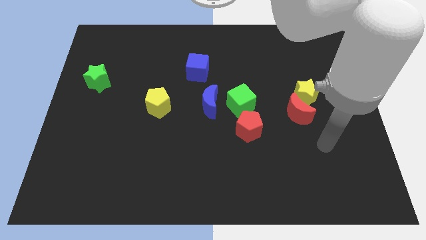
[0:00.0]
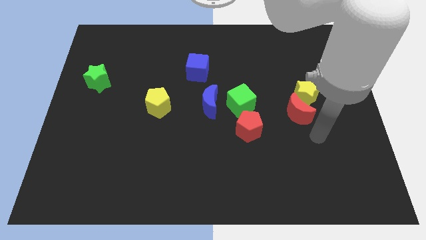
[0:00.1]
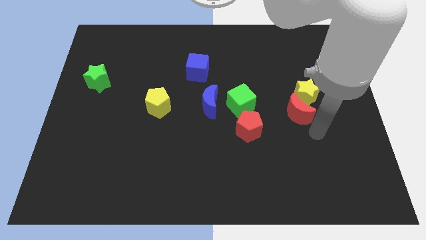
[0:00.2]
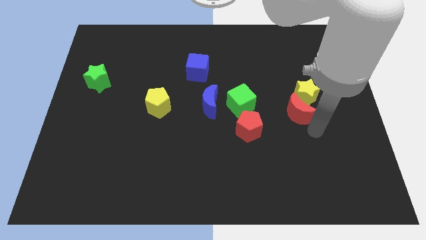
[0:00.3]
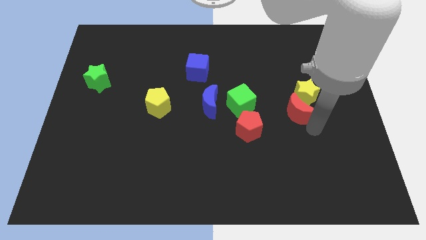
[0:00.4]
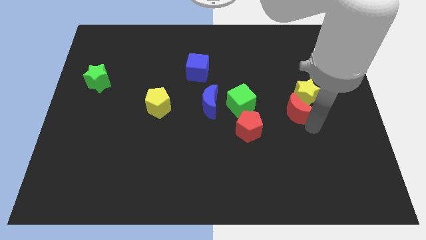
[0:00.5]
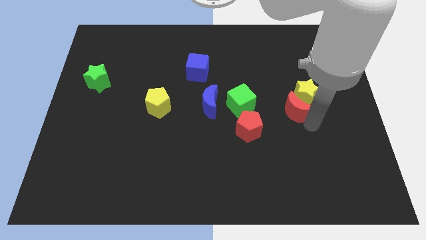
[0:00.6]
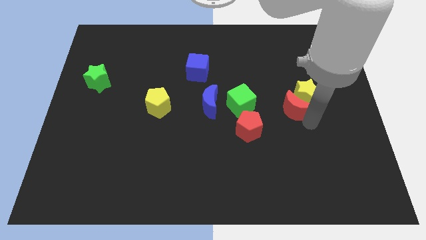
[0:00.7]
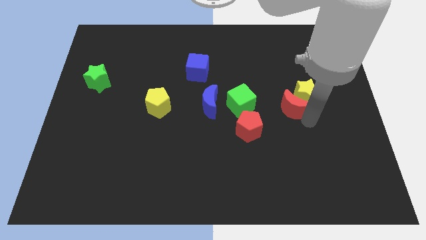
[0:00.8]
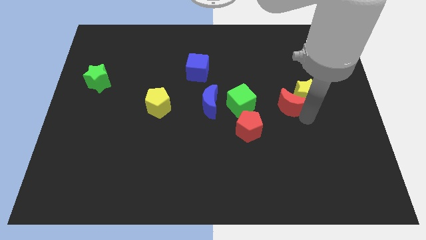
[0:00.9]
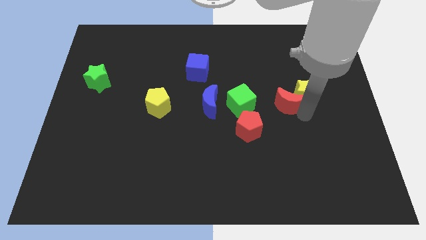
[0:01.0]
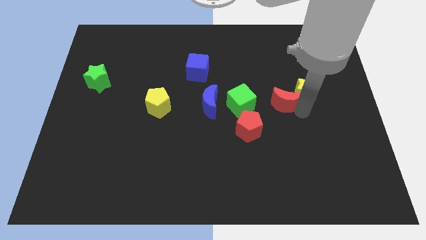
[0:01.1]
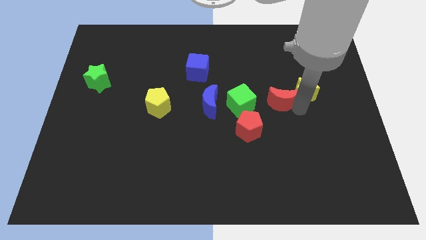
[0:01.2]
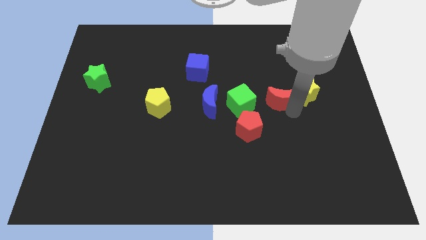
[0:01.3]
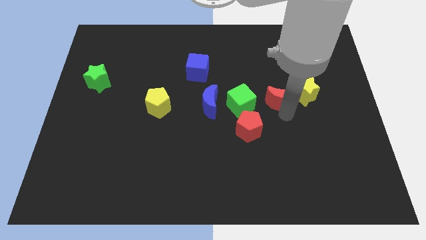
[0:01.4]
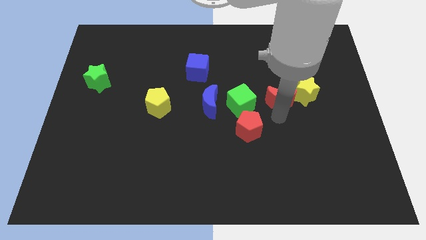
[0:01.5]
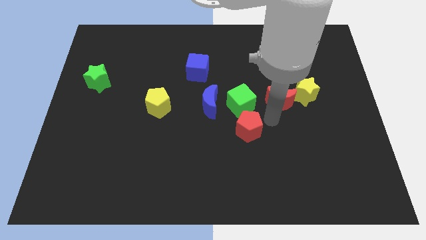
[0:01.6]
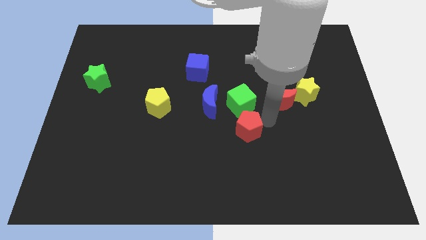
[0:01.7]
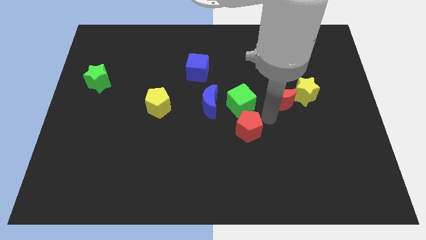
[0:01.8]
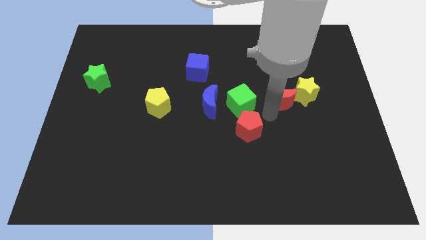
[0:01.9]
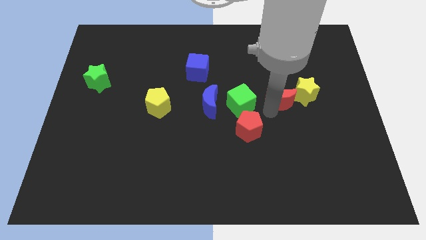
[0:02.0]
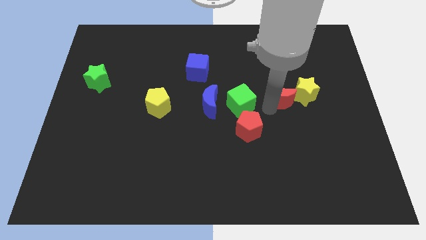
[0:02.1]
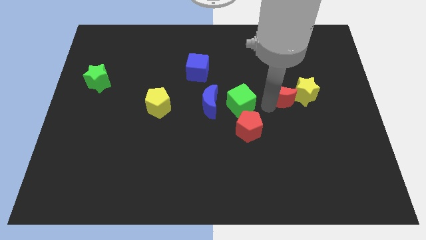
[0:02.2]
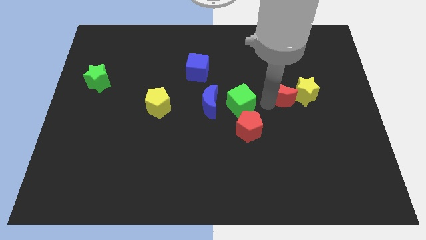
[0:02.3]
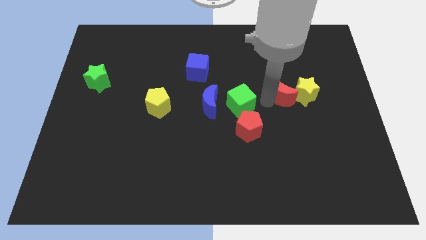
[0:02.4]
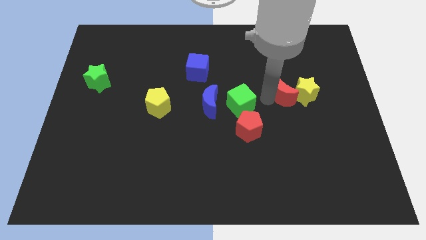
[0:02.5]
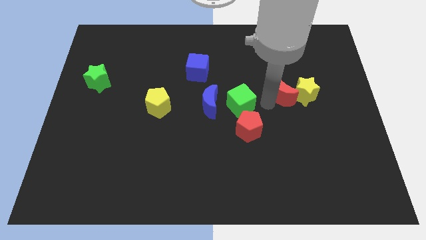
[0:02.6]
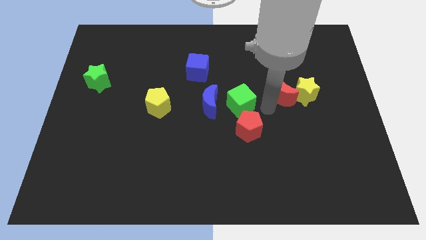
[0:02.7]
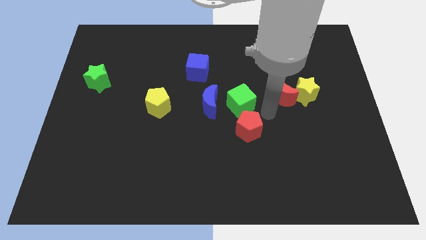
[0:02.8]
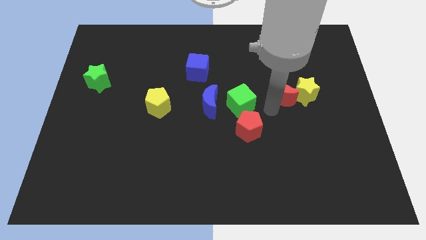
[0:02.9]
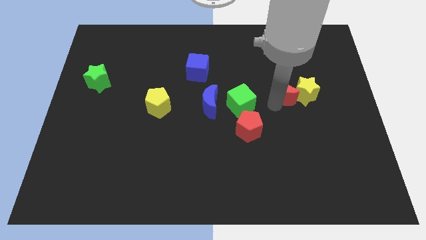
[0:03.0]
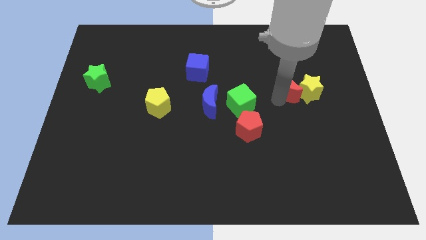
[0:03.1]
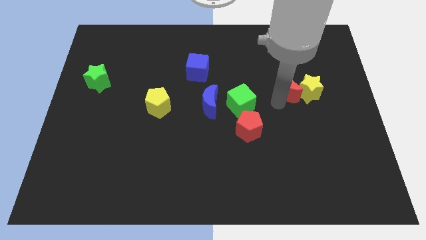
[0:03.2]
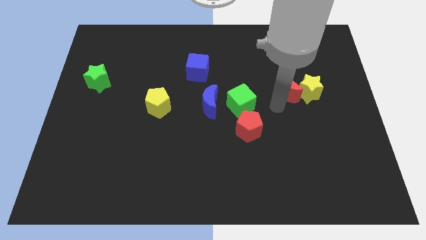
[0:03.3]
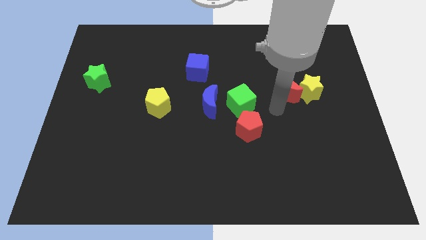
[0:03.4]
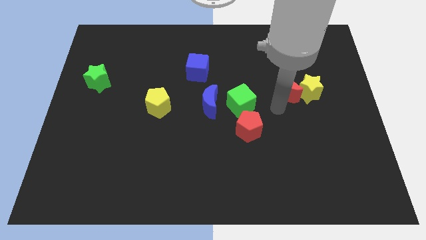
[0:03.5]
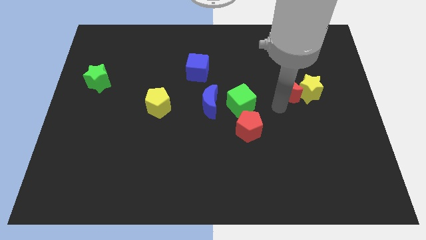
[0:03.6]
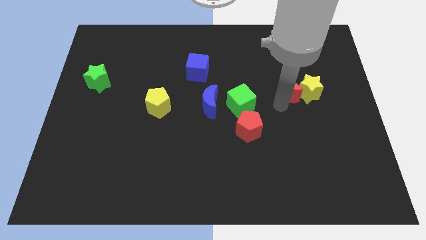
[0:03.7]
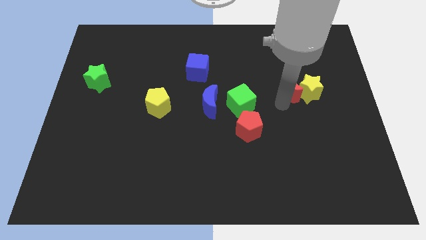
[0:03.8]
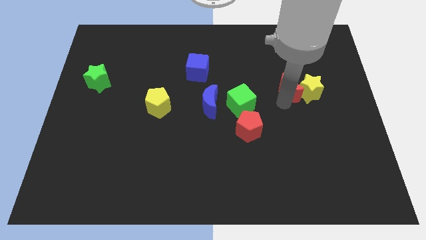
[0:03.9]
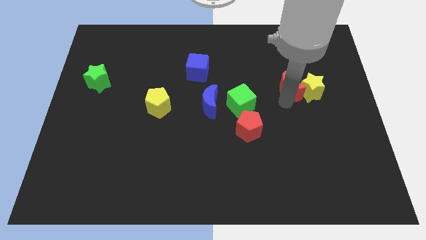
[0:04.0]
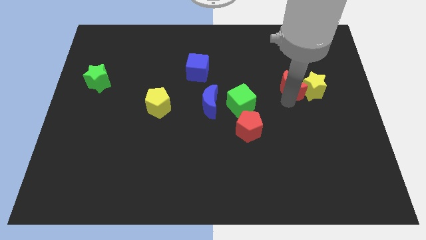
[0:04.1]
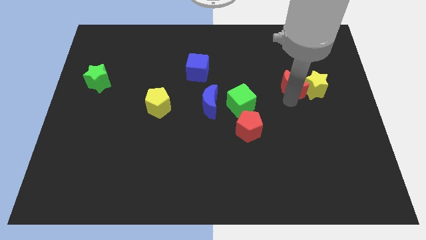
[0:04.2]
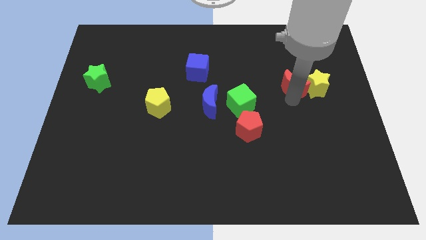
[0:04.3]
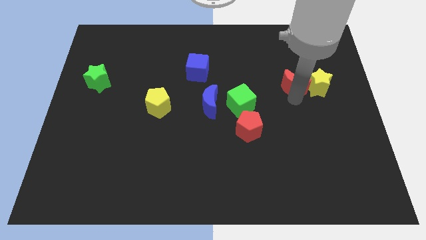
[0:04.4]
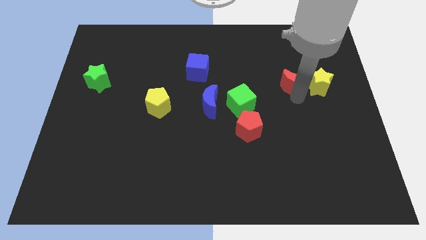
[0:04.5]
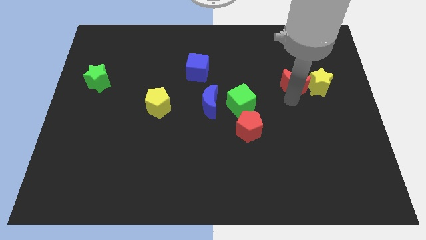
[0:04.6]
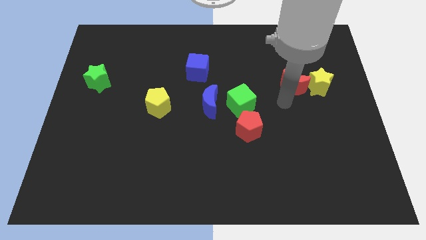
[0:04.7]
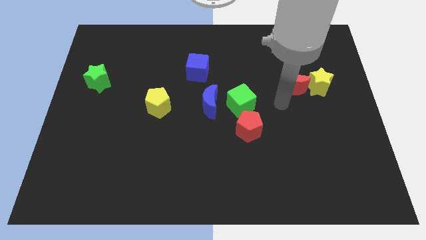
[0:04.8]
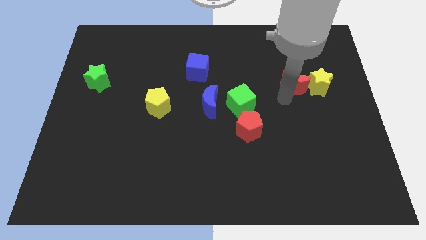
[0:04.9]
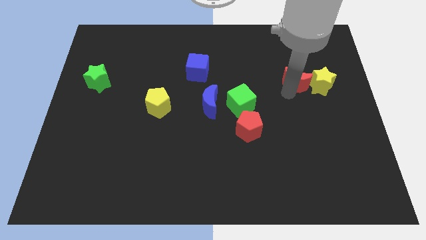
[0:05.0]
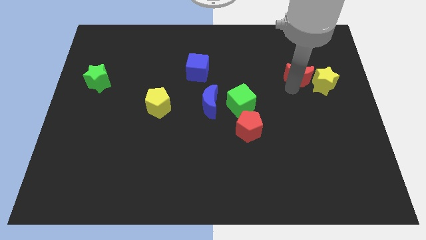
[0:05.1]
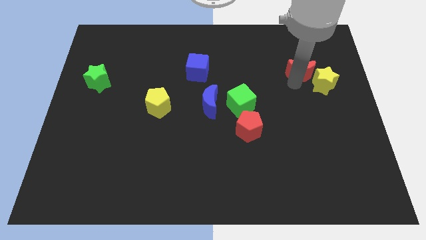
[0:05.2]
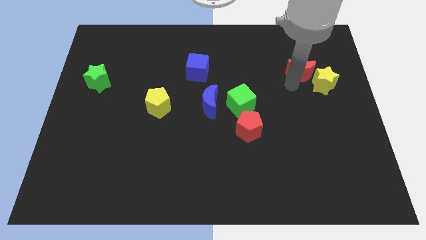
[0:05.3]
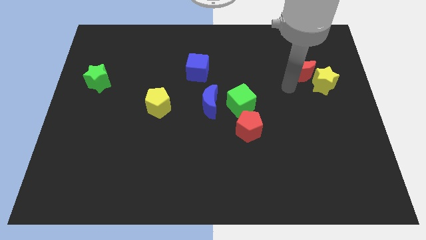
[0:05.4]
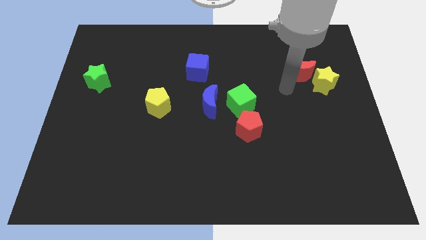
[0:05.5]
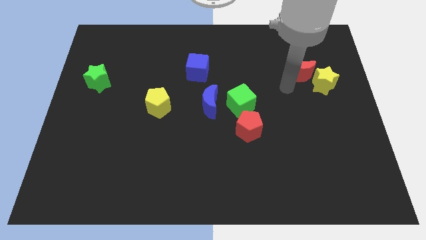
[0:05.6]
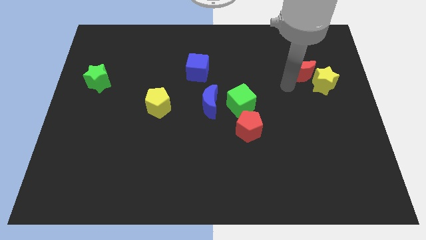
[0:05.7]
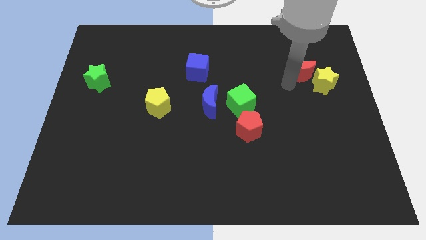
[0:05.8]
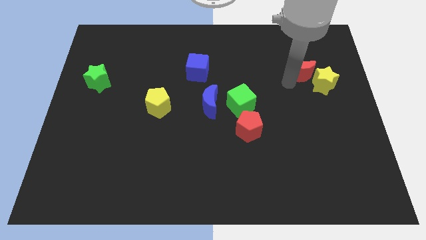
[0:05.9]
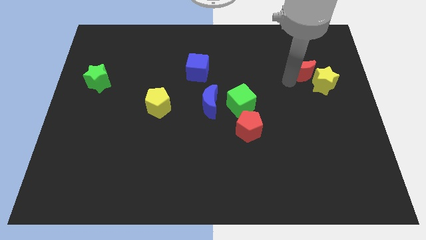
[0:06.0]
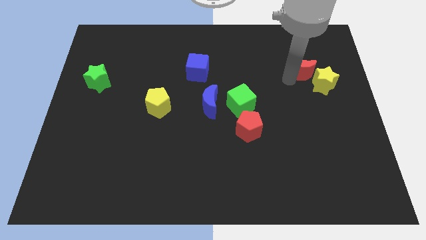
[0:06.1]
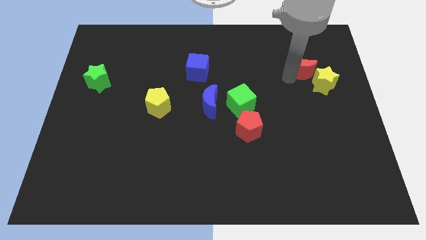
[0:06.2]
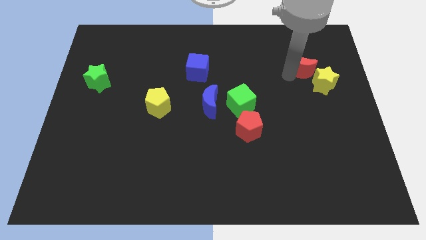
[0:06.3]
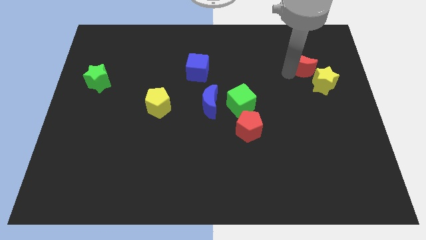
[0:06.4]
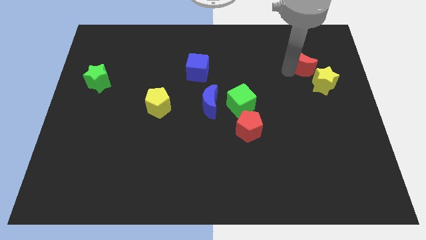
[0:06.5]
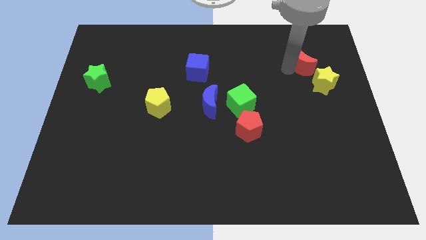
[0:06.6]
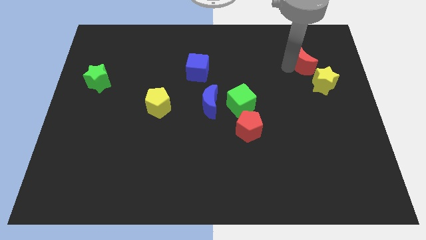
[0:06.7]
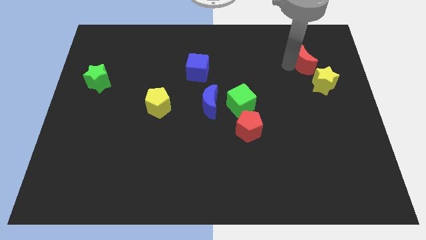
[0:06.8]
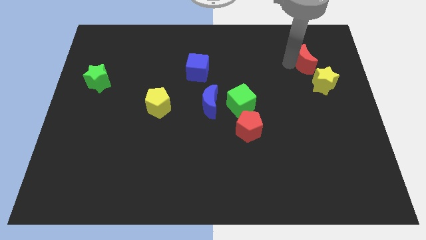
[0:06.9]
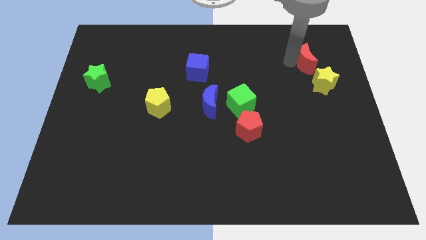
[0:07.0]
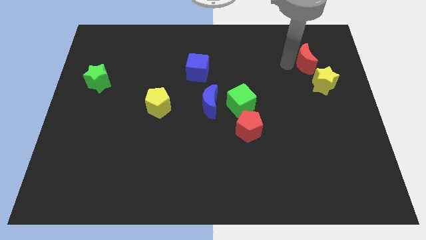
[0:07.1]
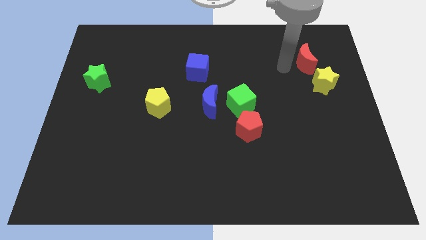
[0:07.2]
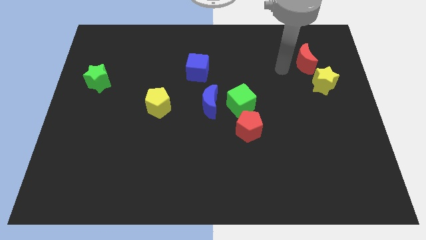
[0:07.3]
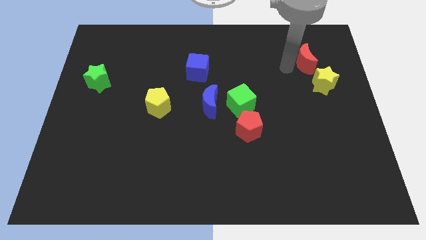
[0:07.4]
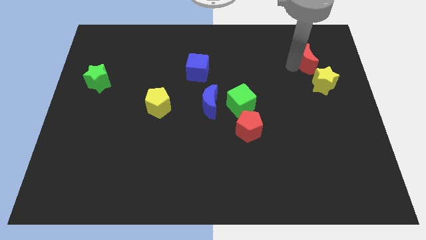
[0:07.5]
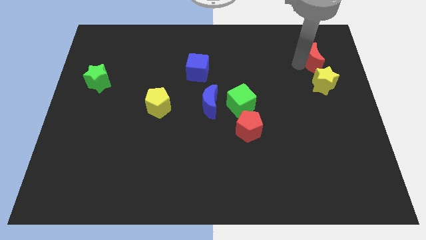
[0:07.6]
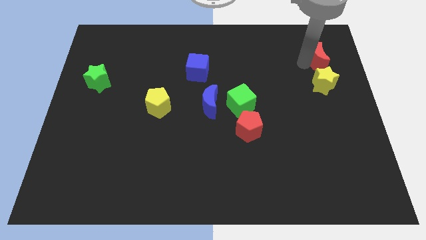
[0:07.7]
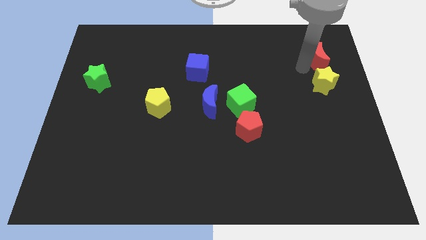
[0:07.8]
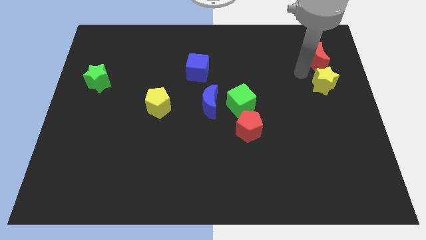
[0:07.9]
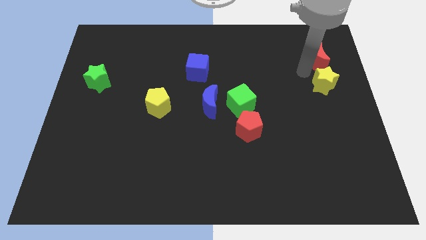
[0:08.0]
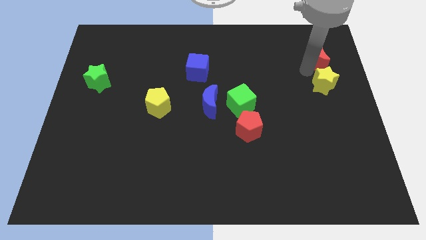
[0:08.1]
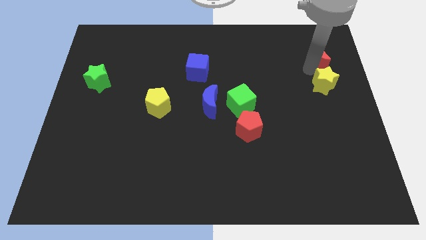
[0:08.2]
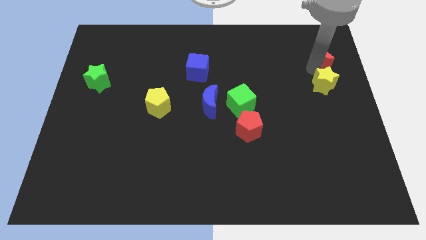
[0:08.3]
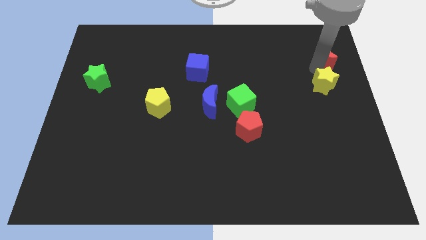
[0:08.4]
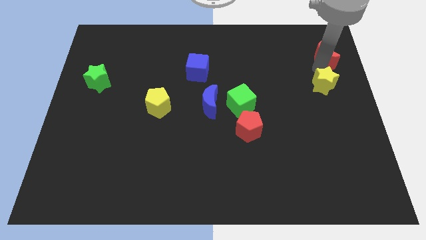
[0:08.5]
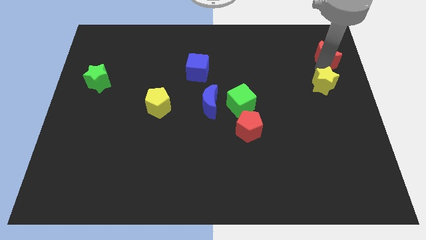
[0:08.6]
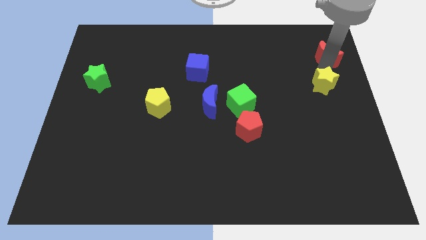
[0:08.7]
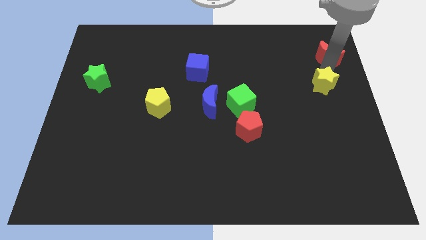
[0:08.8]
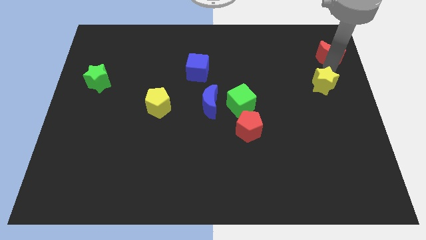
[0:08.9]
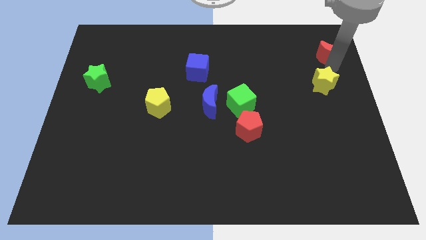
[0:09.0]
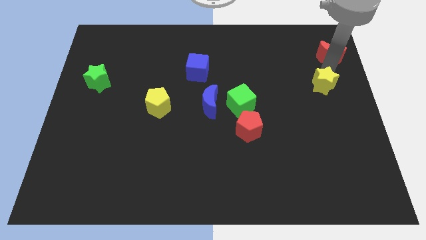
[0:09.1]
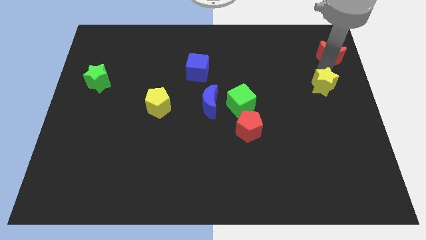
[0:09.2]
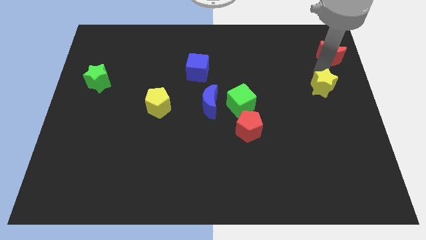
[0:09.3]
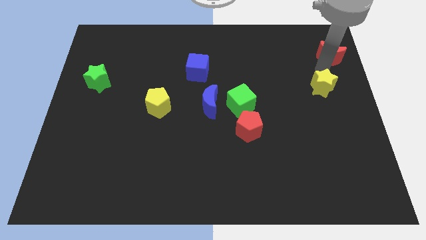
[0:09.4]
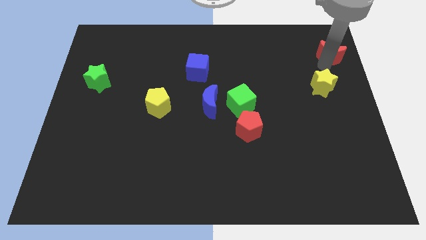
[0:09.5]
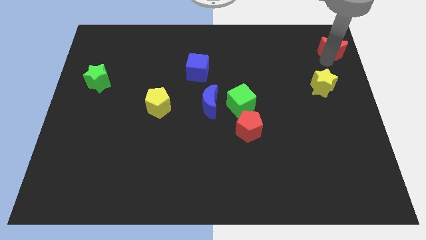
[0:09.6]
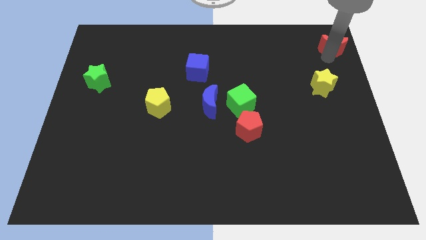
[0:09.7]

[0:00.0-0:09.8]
slide the red moon to the top right of the board
